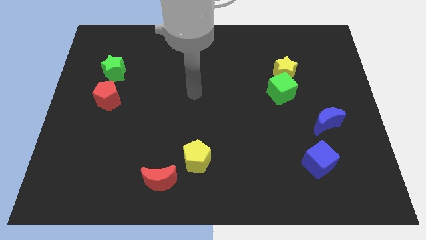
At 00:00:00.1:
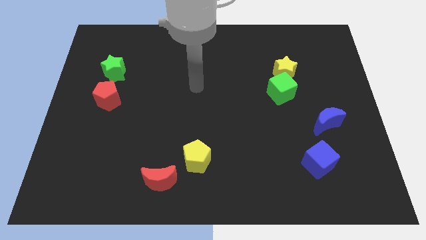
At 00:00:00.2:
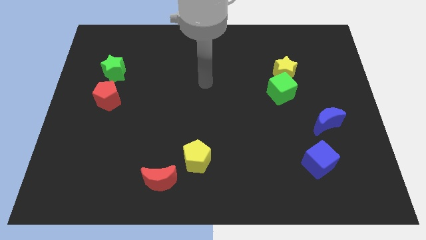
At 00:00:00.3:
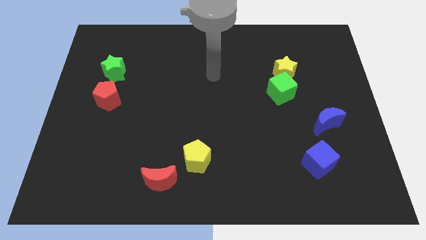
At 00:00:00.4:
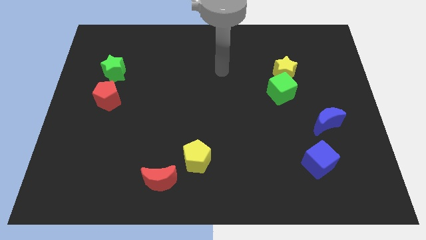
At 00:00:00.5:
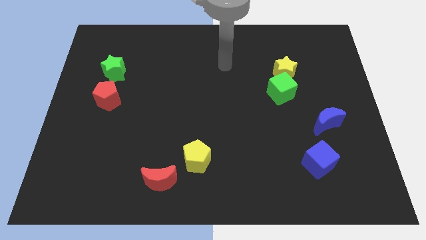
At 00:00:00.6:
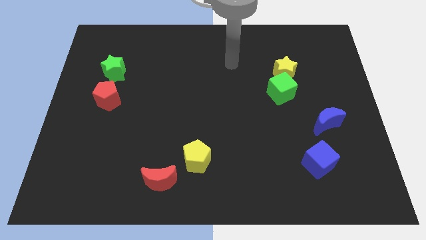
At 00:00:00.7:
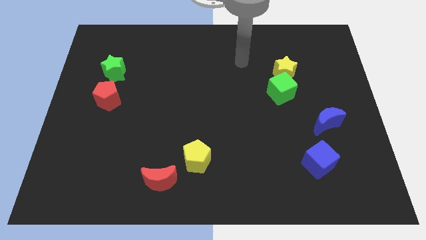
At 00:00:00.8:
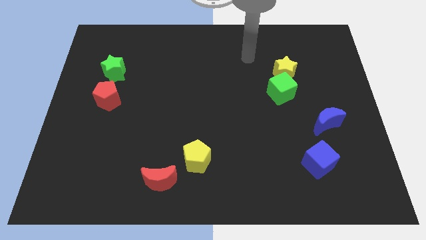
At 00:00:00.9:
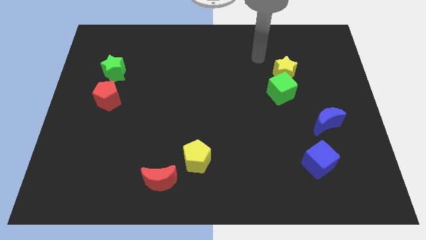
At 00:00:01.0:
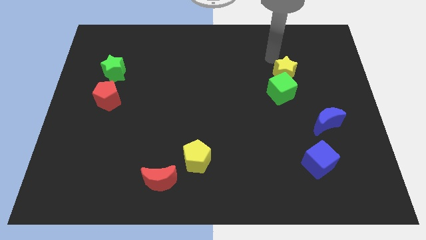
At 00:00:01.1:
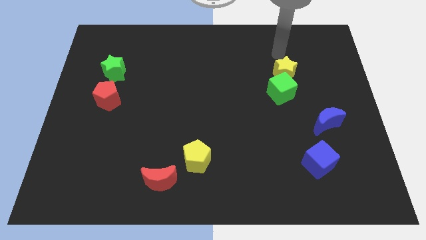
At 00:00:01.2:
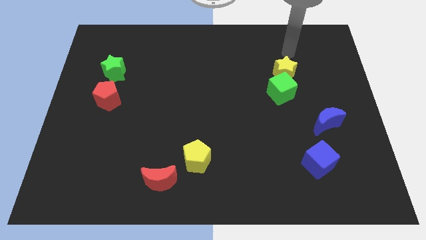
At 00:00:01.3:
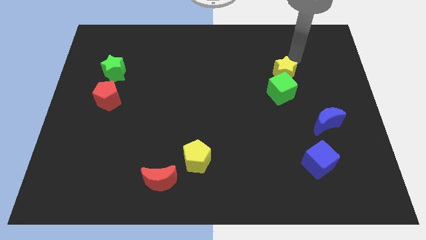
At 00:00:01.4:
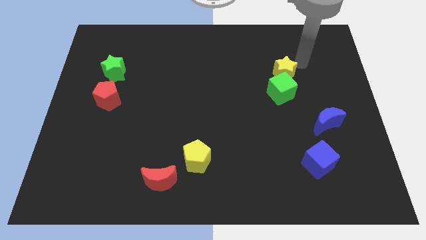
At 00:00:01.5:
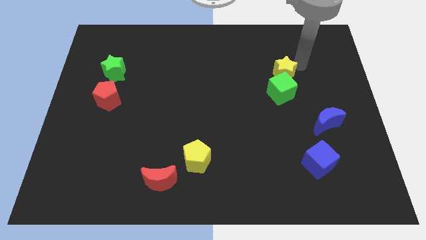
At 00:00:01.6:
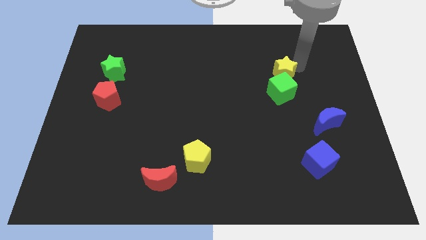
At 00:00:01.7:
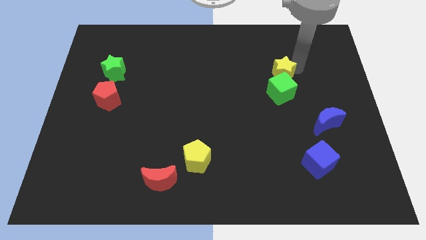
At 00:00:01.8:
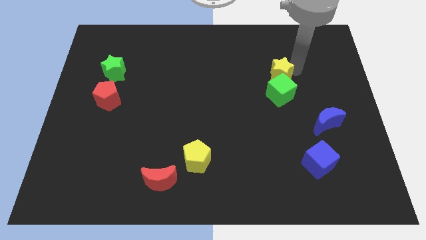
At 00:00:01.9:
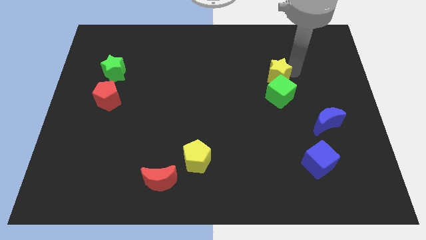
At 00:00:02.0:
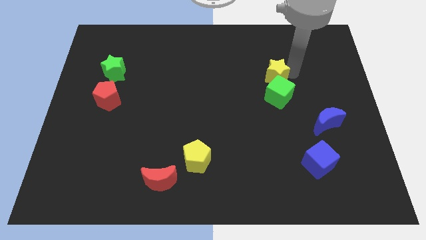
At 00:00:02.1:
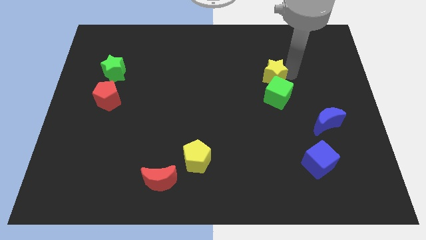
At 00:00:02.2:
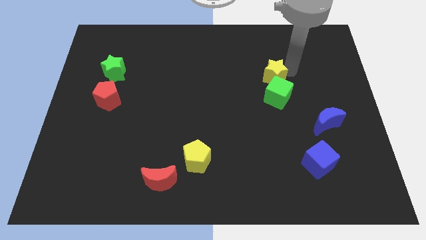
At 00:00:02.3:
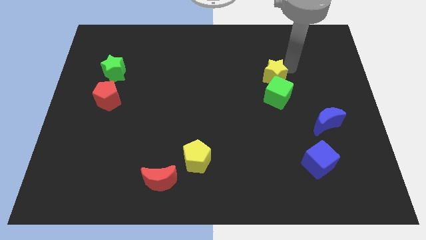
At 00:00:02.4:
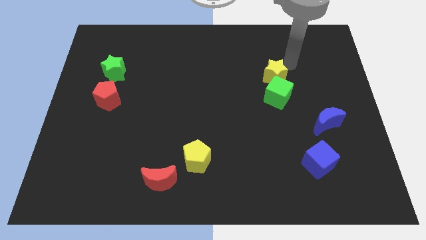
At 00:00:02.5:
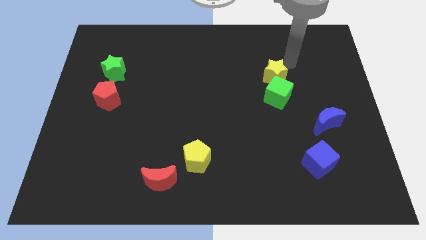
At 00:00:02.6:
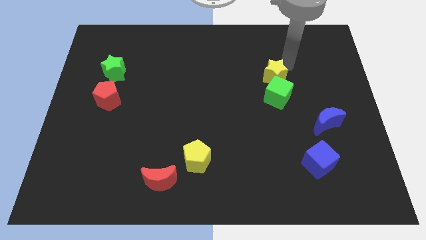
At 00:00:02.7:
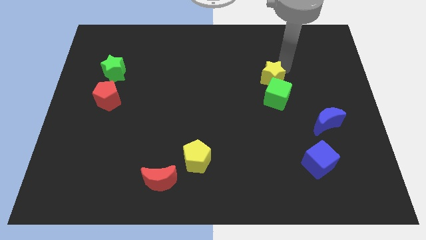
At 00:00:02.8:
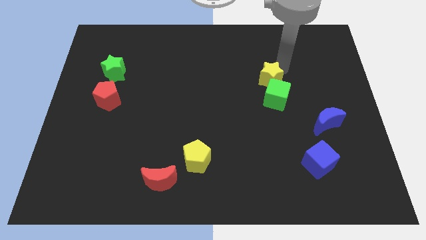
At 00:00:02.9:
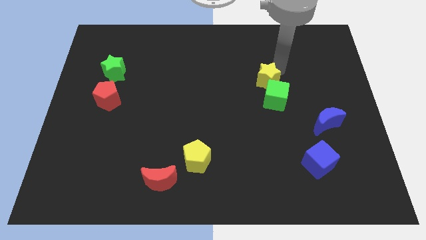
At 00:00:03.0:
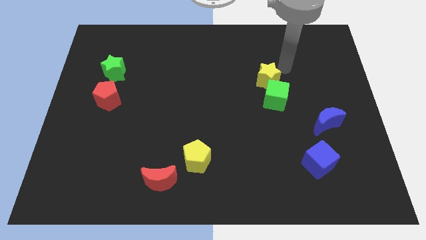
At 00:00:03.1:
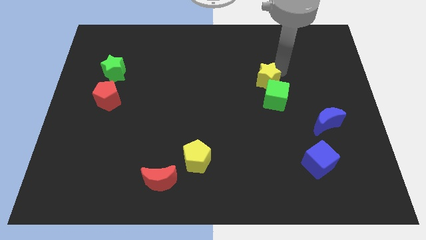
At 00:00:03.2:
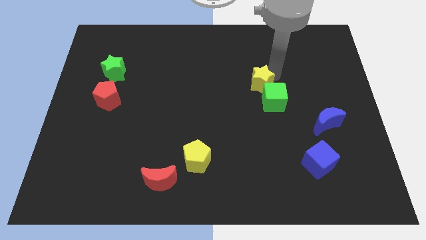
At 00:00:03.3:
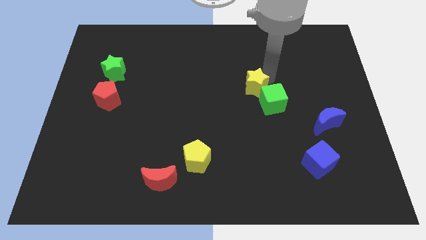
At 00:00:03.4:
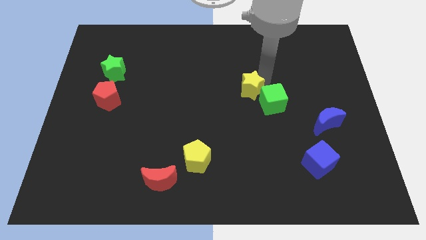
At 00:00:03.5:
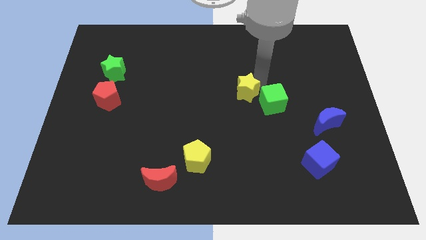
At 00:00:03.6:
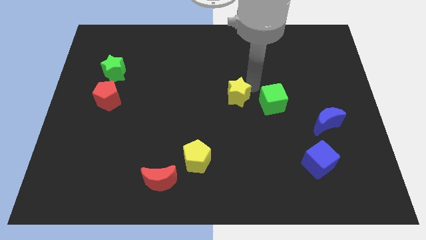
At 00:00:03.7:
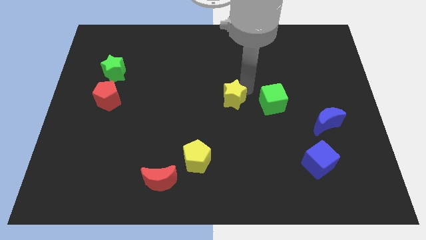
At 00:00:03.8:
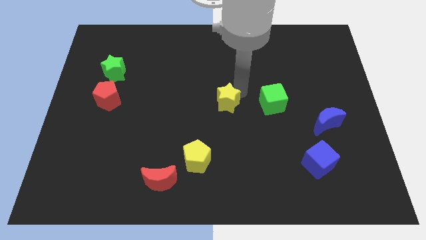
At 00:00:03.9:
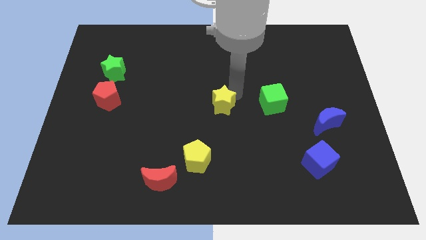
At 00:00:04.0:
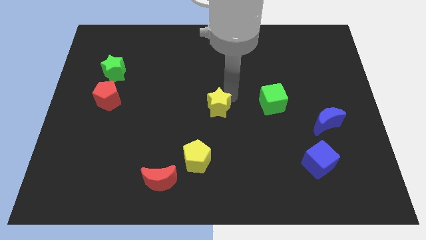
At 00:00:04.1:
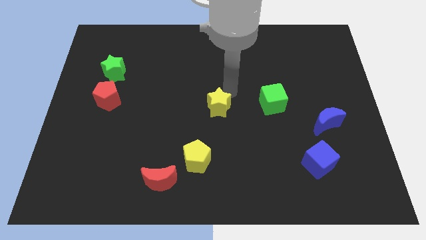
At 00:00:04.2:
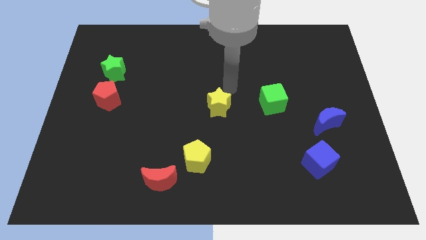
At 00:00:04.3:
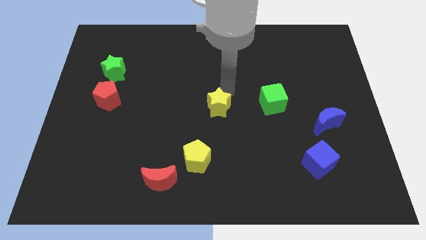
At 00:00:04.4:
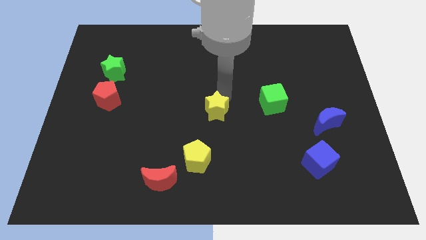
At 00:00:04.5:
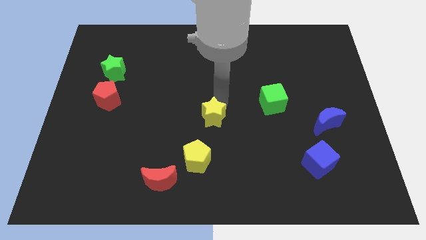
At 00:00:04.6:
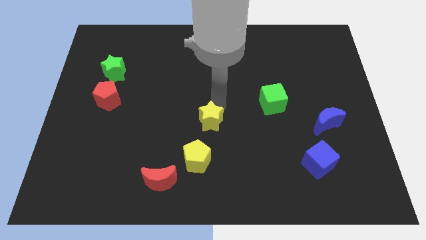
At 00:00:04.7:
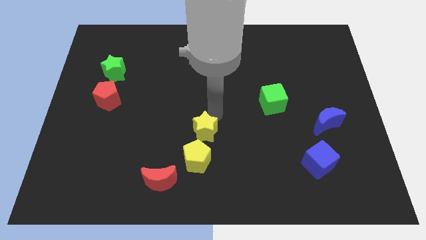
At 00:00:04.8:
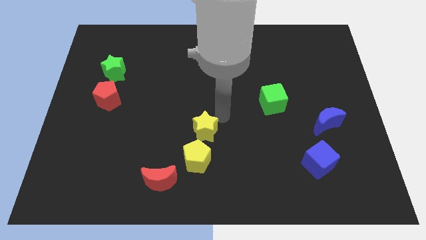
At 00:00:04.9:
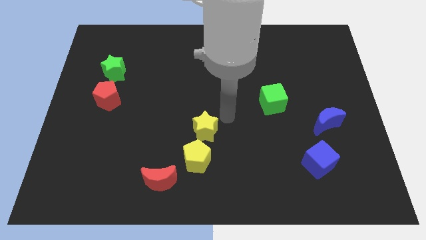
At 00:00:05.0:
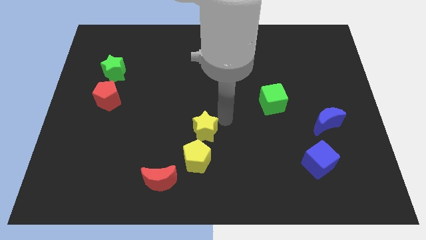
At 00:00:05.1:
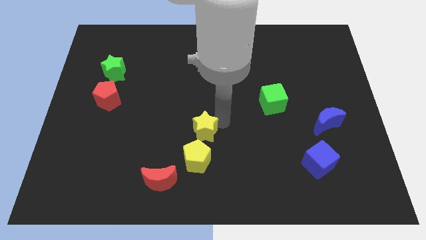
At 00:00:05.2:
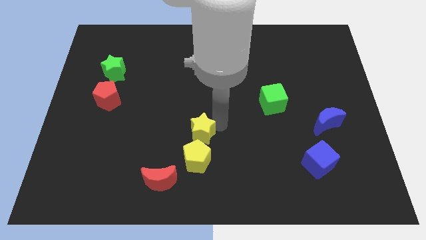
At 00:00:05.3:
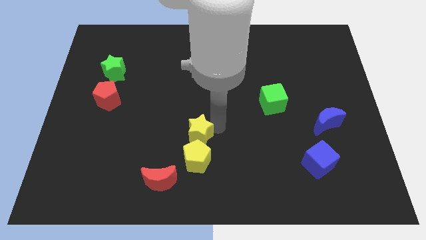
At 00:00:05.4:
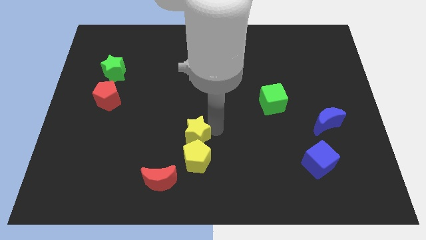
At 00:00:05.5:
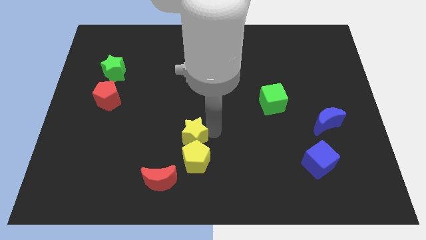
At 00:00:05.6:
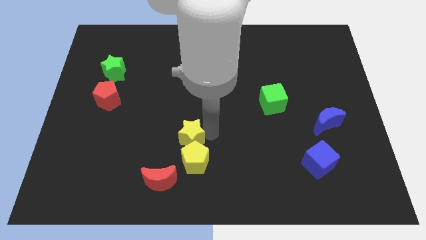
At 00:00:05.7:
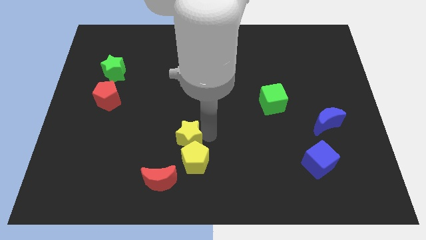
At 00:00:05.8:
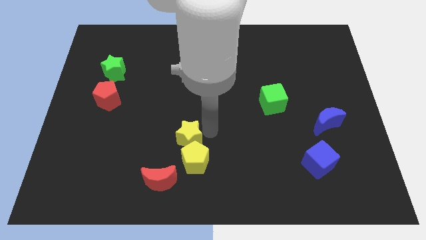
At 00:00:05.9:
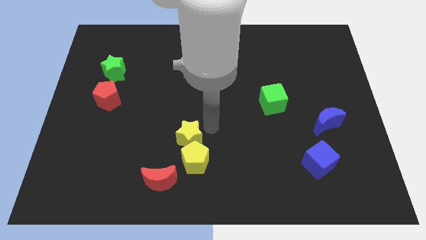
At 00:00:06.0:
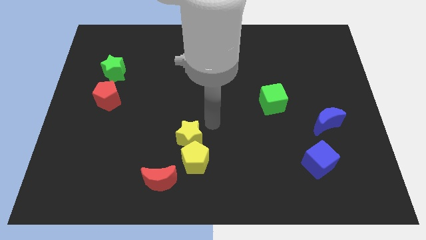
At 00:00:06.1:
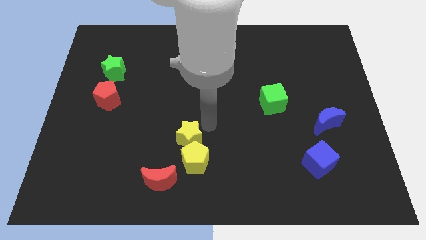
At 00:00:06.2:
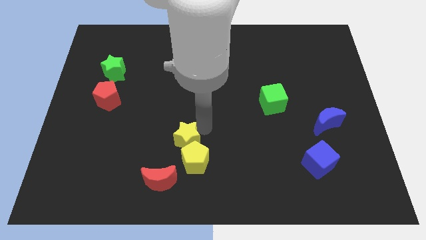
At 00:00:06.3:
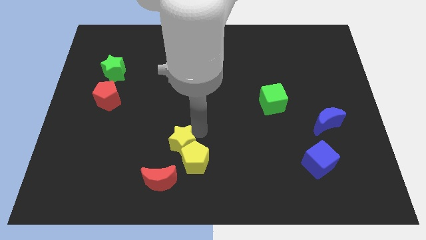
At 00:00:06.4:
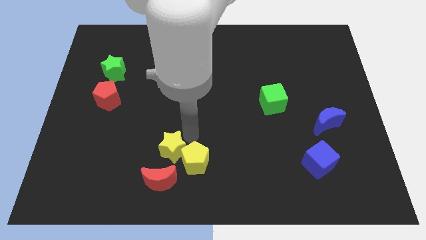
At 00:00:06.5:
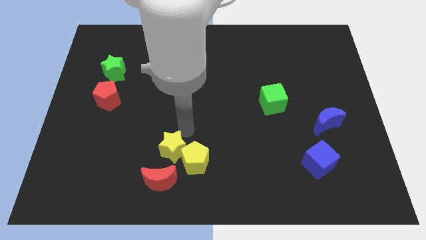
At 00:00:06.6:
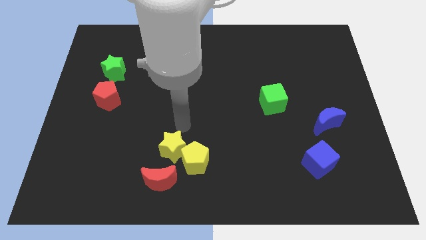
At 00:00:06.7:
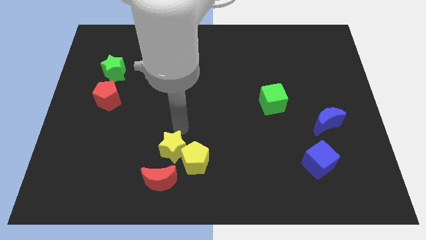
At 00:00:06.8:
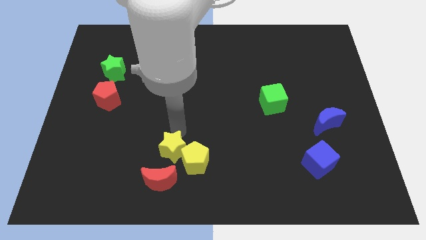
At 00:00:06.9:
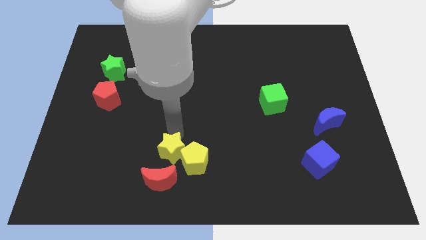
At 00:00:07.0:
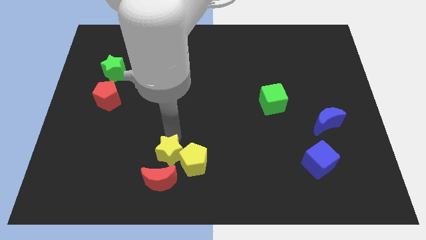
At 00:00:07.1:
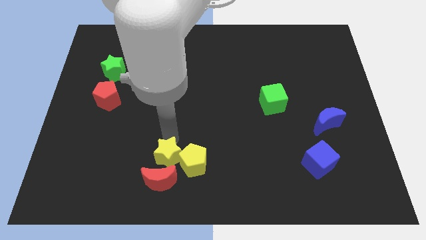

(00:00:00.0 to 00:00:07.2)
slide the yellow star close to the red moon
